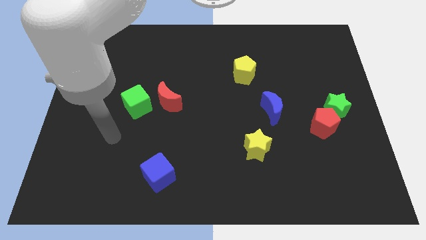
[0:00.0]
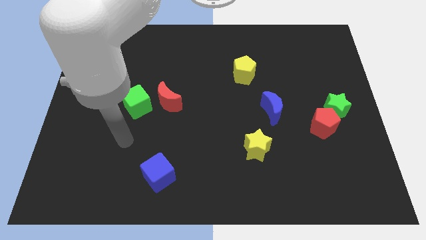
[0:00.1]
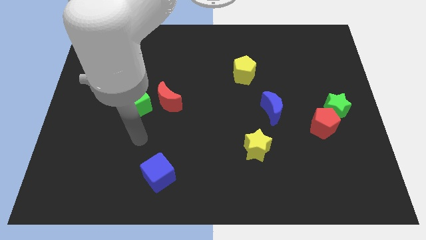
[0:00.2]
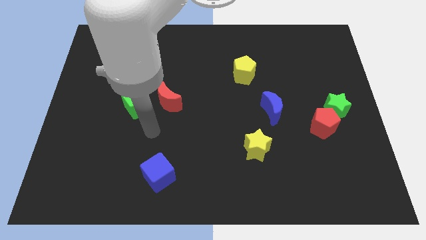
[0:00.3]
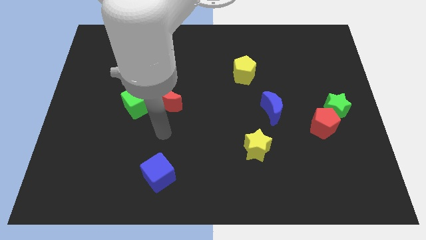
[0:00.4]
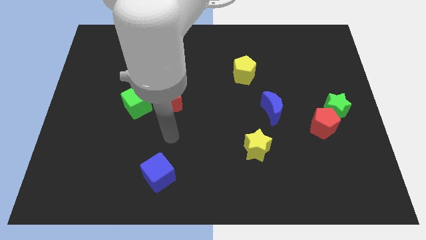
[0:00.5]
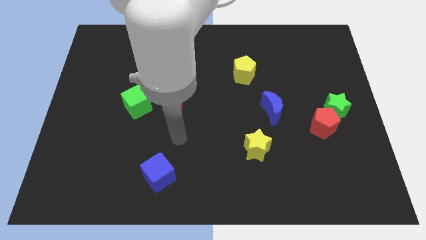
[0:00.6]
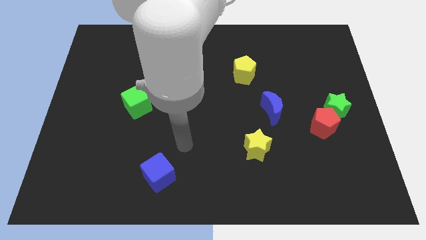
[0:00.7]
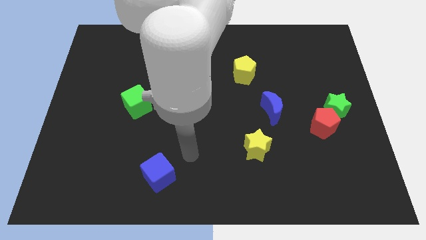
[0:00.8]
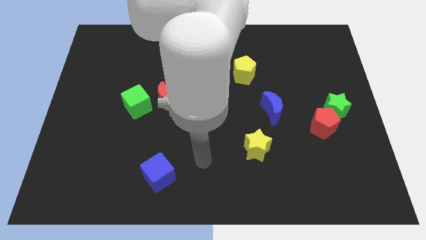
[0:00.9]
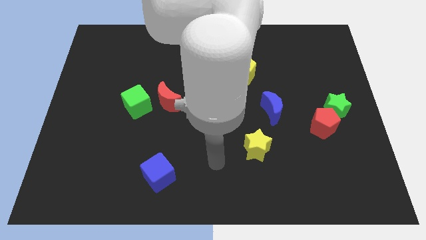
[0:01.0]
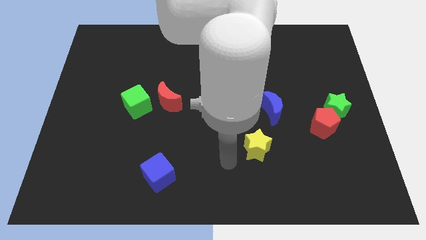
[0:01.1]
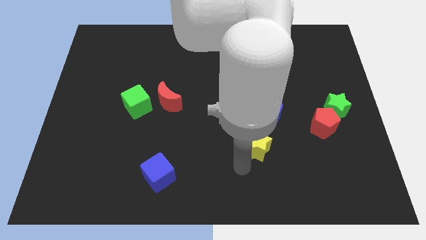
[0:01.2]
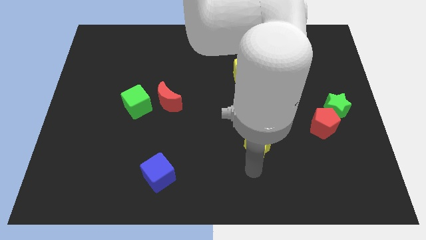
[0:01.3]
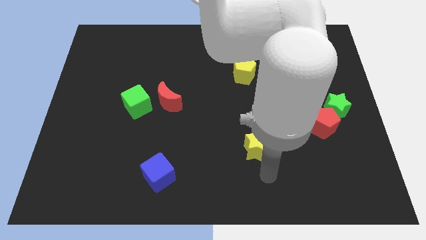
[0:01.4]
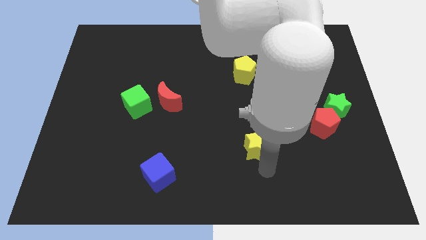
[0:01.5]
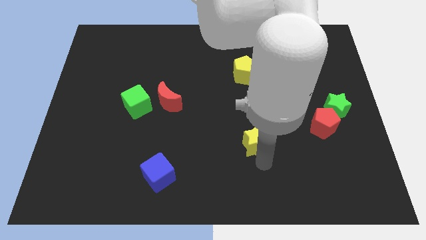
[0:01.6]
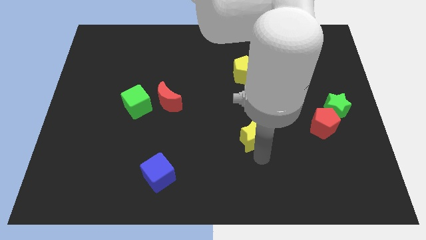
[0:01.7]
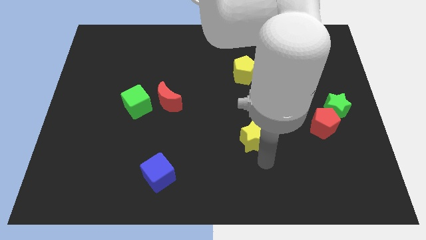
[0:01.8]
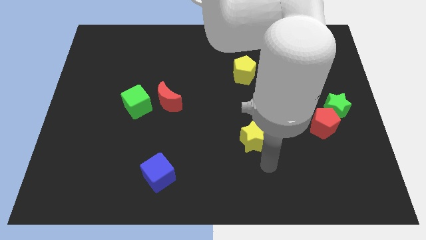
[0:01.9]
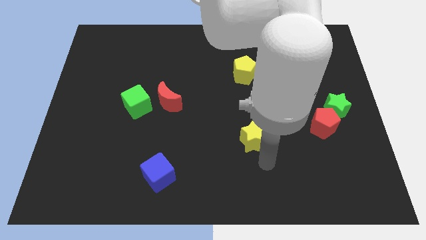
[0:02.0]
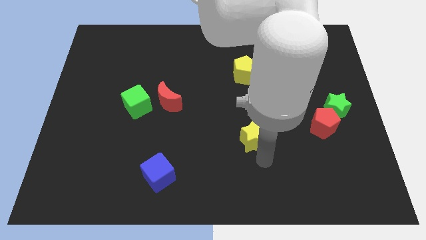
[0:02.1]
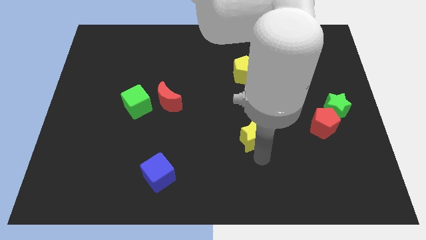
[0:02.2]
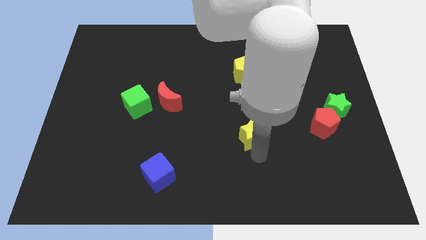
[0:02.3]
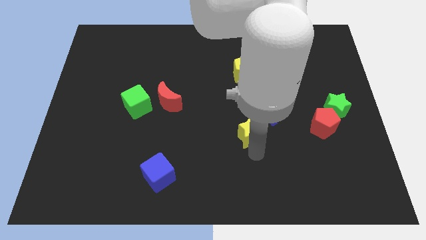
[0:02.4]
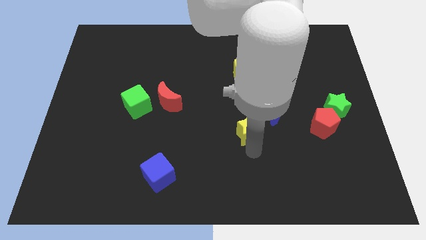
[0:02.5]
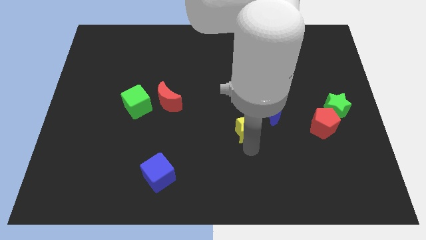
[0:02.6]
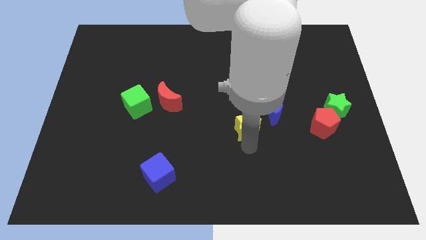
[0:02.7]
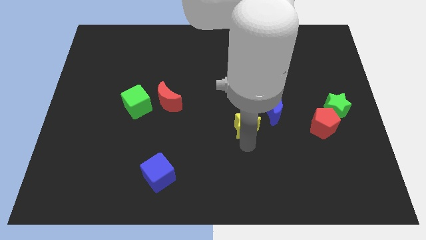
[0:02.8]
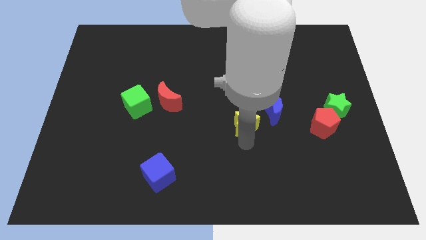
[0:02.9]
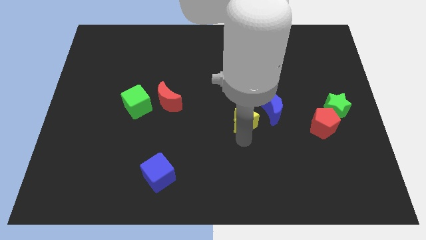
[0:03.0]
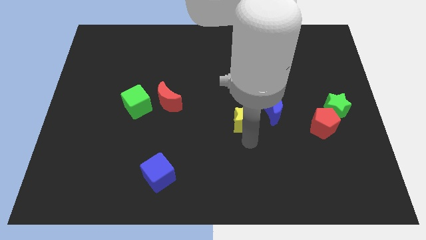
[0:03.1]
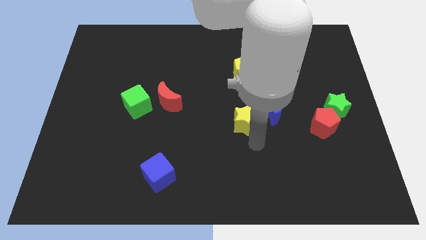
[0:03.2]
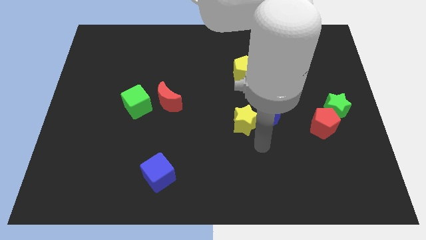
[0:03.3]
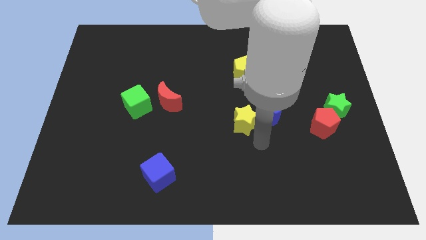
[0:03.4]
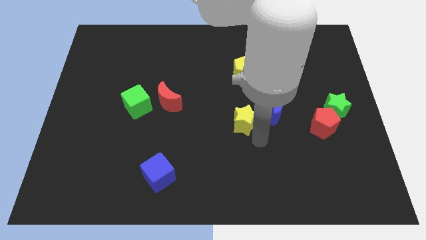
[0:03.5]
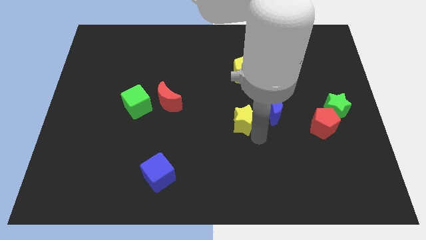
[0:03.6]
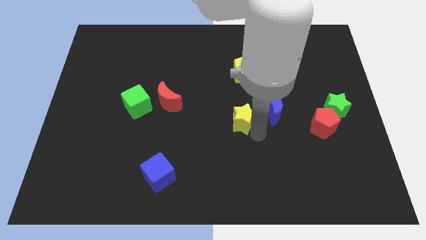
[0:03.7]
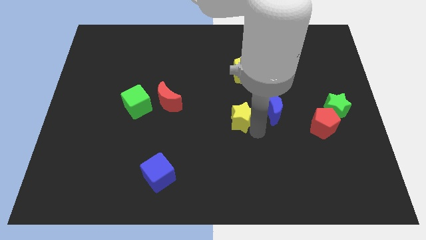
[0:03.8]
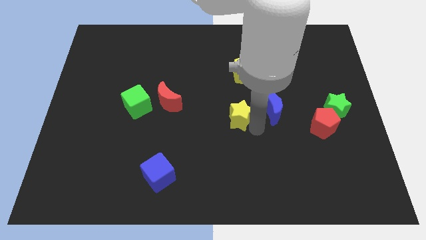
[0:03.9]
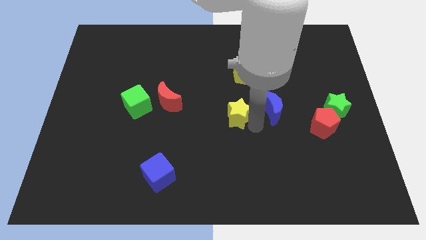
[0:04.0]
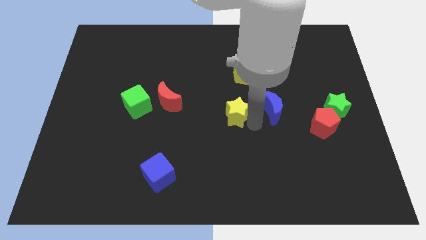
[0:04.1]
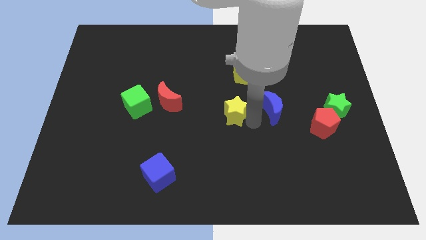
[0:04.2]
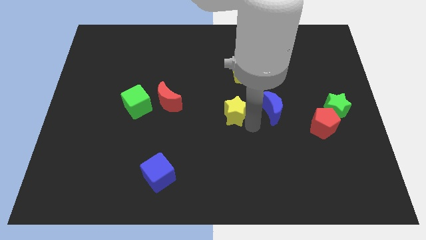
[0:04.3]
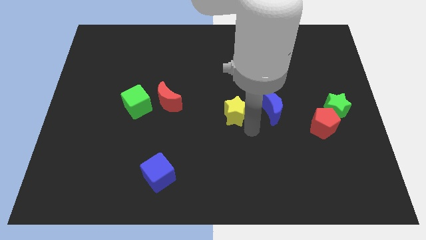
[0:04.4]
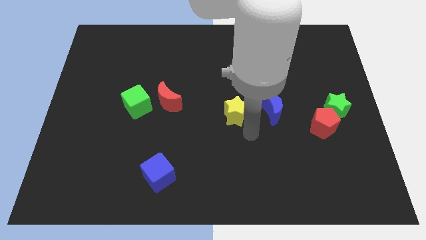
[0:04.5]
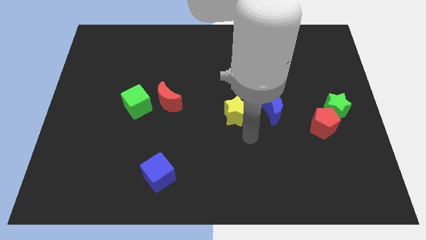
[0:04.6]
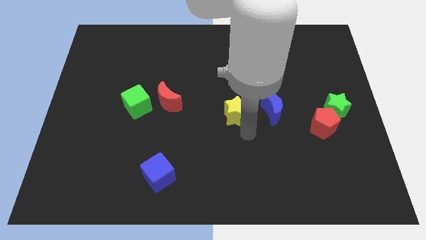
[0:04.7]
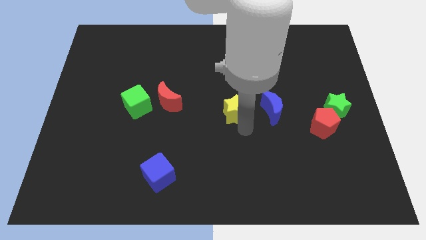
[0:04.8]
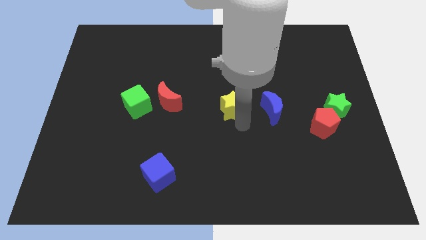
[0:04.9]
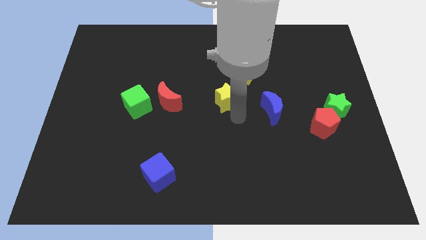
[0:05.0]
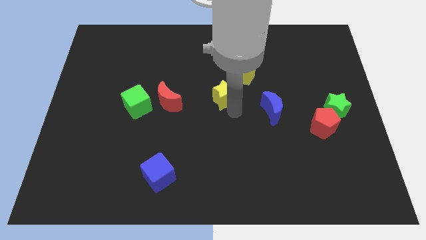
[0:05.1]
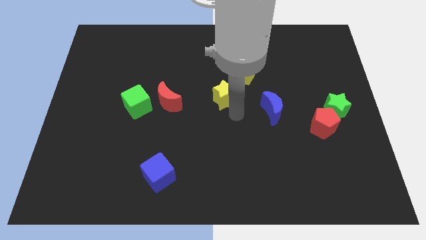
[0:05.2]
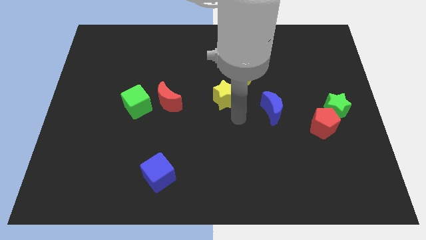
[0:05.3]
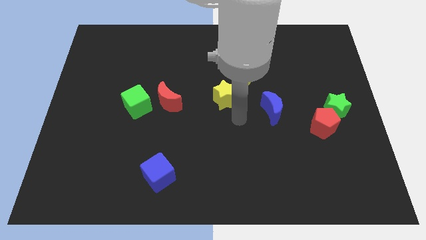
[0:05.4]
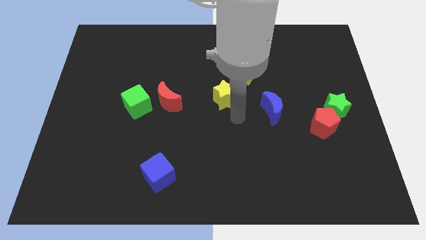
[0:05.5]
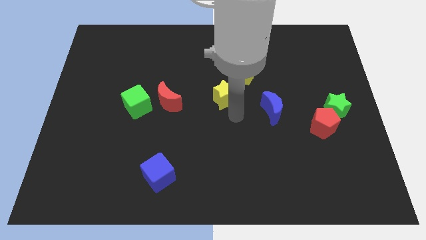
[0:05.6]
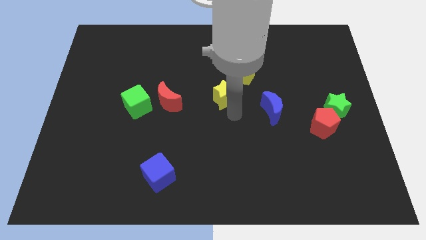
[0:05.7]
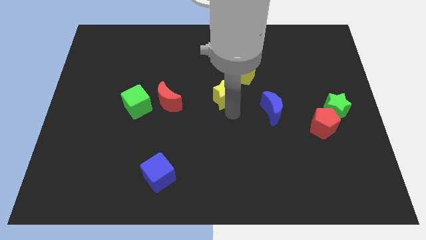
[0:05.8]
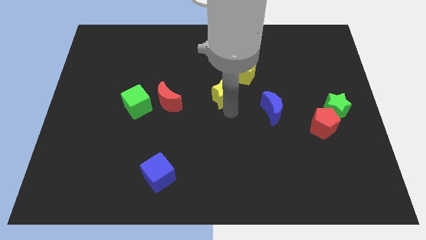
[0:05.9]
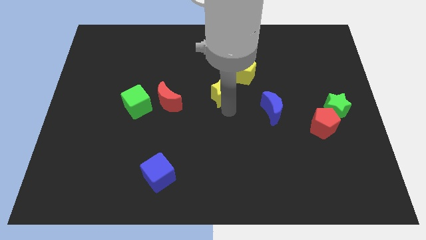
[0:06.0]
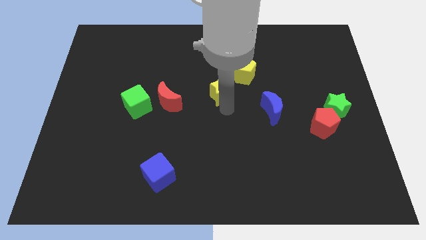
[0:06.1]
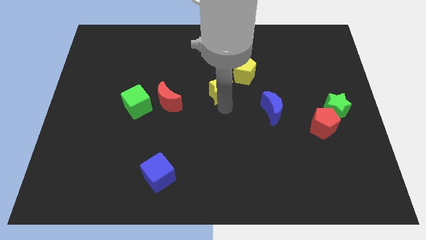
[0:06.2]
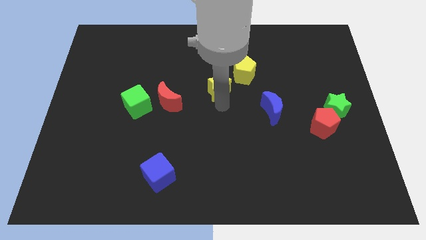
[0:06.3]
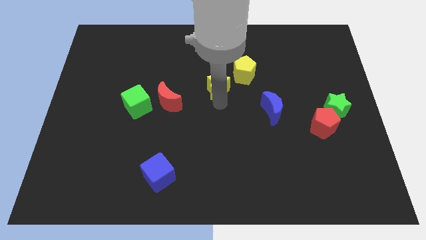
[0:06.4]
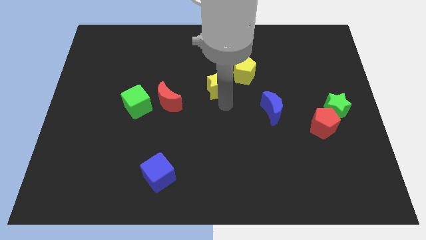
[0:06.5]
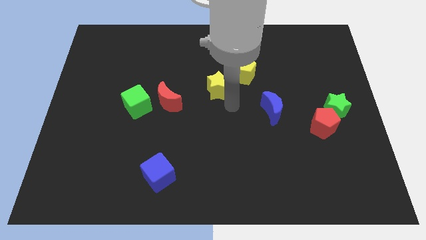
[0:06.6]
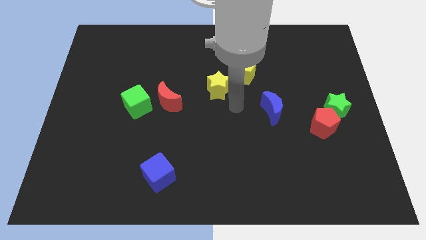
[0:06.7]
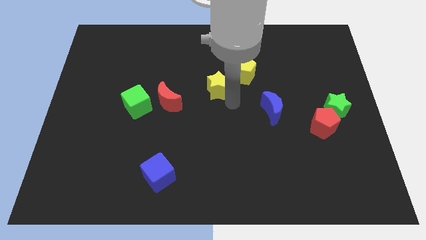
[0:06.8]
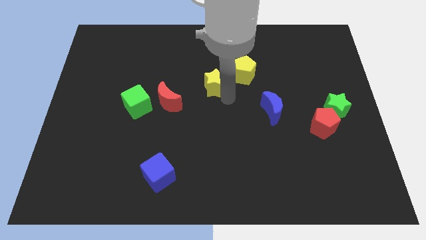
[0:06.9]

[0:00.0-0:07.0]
push the yellow star to the left of the yellow pentagon
